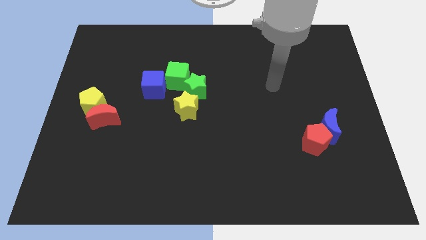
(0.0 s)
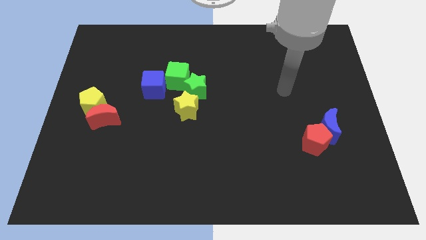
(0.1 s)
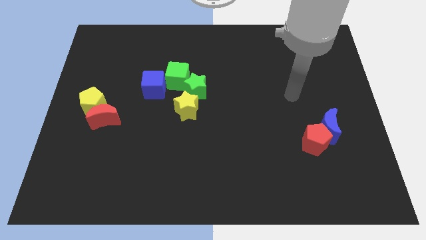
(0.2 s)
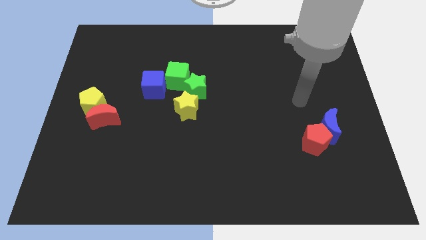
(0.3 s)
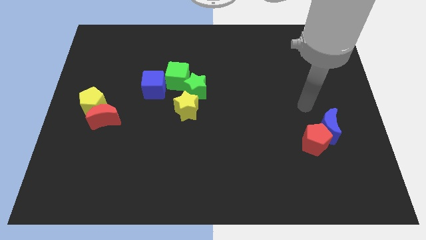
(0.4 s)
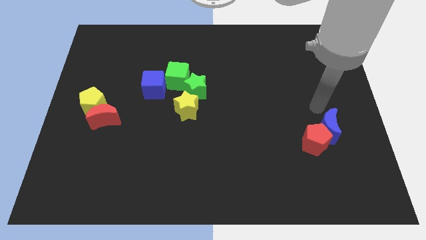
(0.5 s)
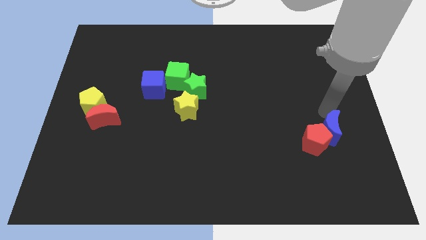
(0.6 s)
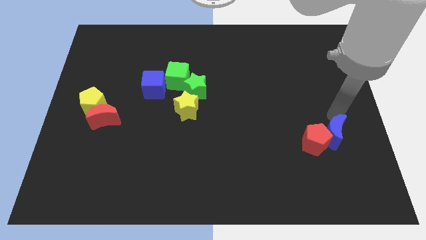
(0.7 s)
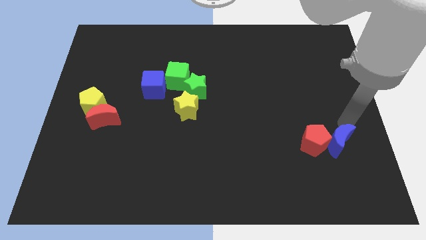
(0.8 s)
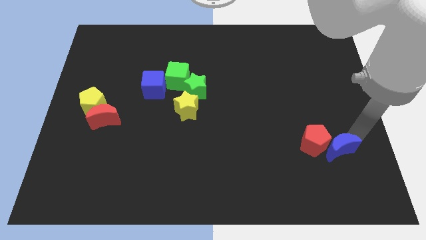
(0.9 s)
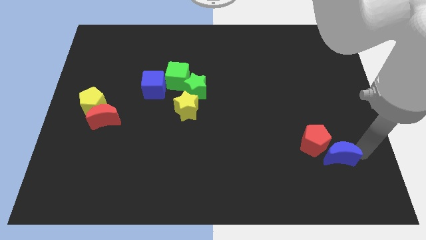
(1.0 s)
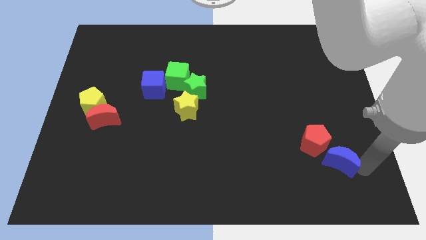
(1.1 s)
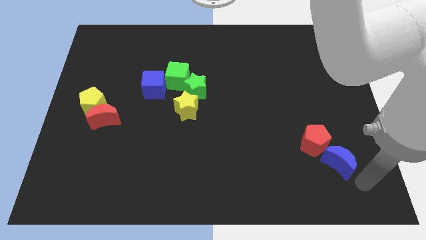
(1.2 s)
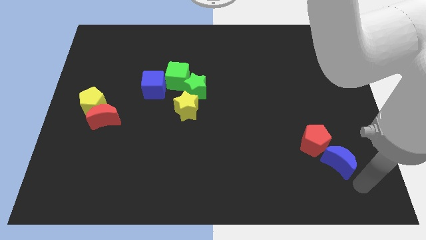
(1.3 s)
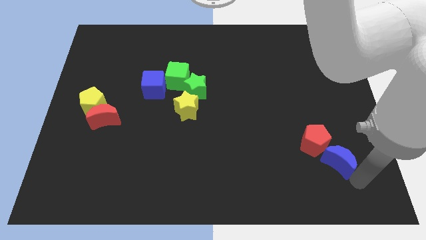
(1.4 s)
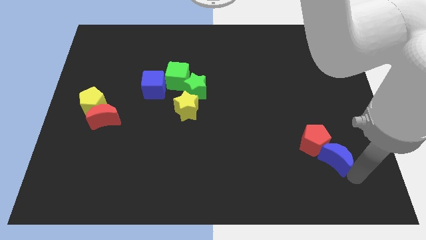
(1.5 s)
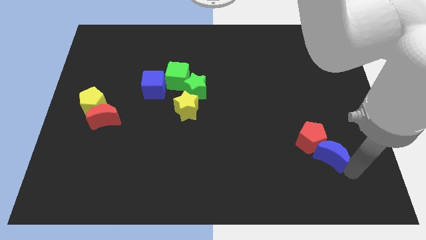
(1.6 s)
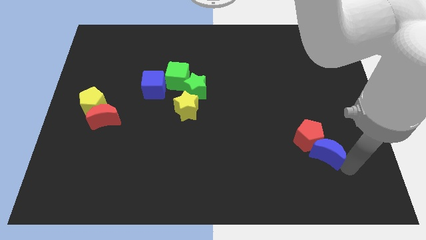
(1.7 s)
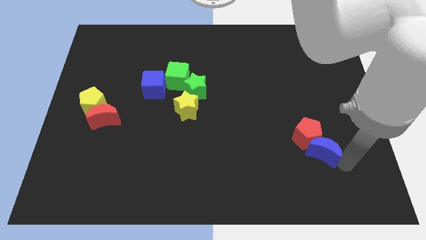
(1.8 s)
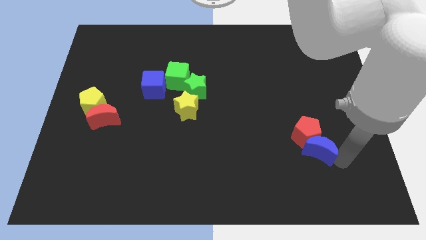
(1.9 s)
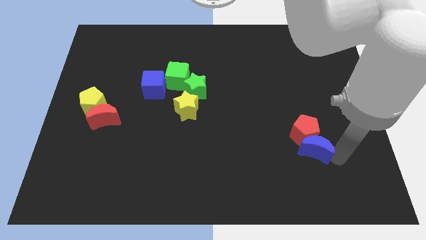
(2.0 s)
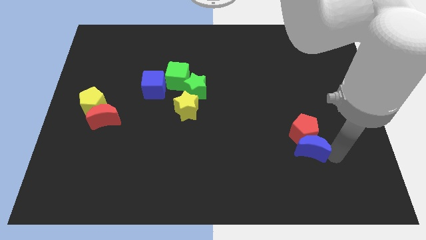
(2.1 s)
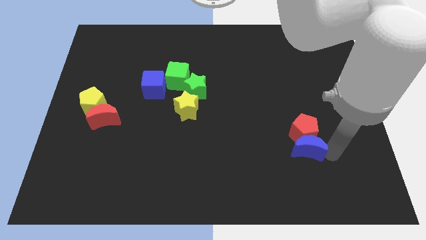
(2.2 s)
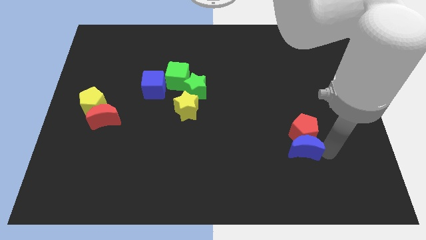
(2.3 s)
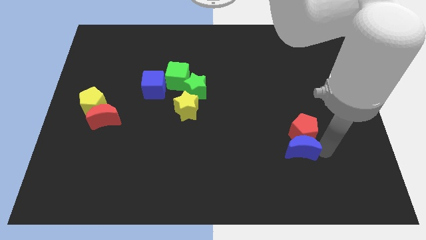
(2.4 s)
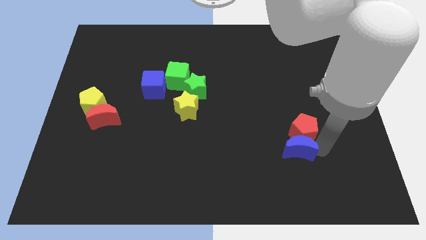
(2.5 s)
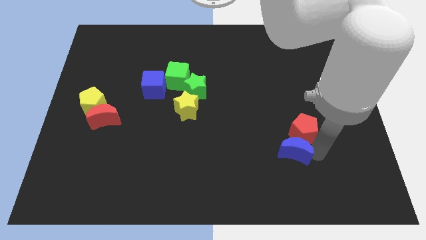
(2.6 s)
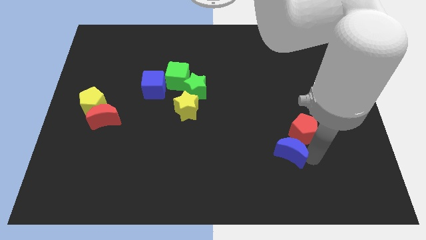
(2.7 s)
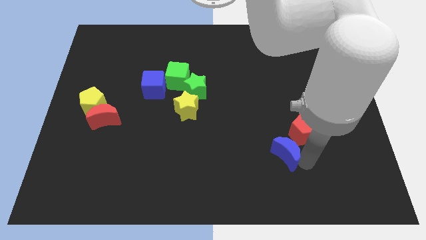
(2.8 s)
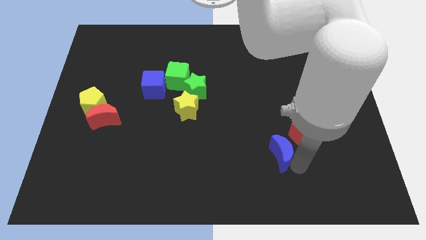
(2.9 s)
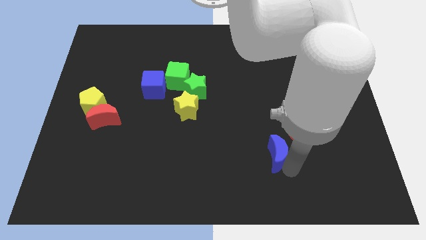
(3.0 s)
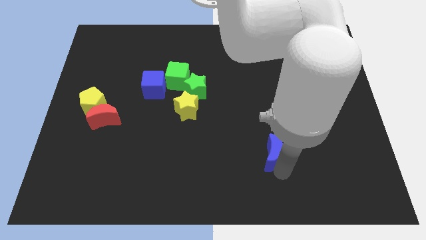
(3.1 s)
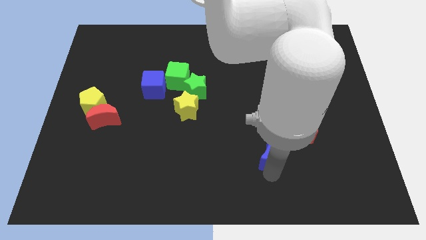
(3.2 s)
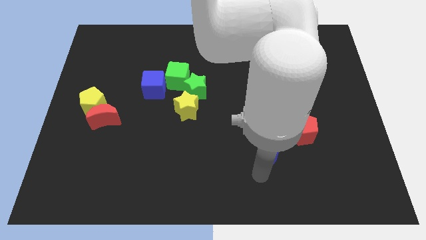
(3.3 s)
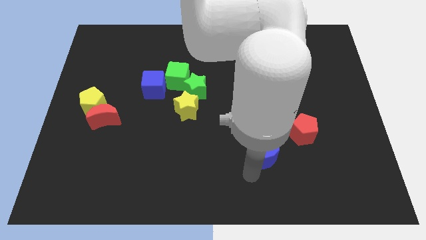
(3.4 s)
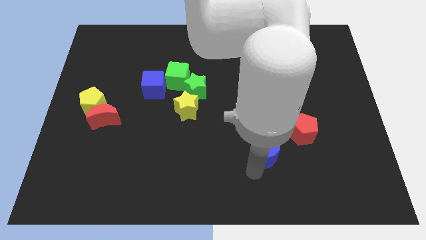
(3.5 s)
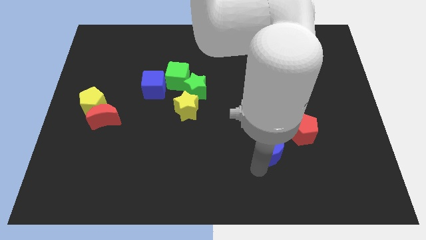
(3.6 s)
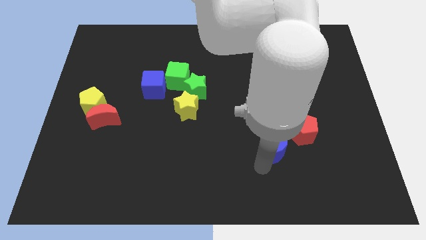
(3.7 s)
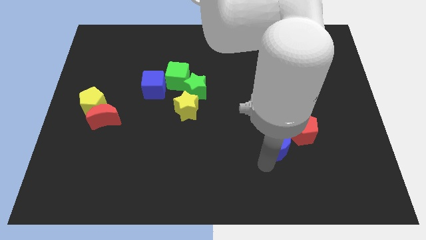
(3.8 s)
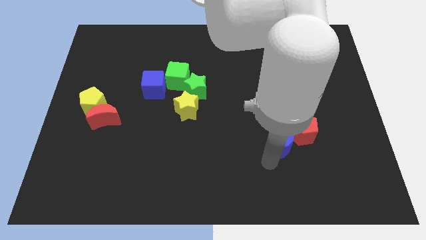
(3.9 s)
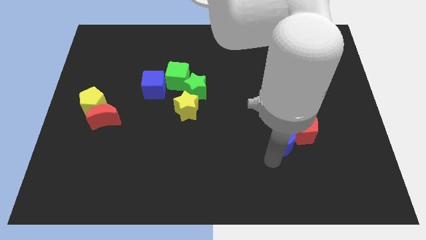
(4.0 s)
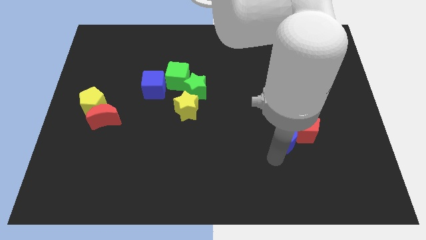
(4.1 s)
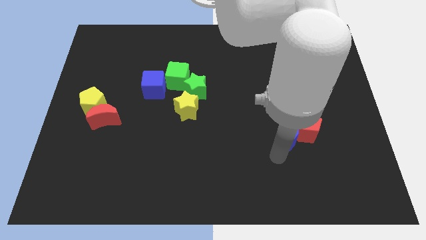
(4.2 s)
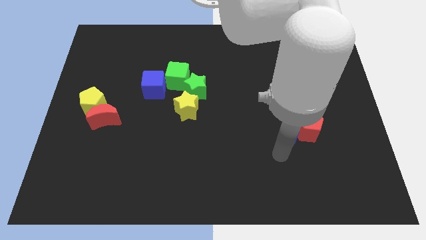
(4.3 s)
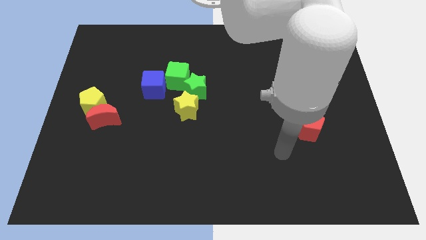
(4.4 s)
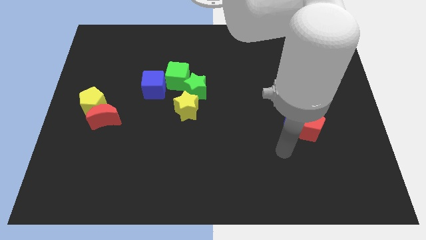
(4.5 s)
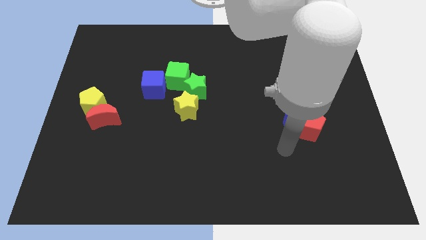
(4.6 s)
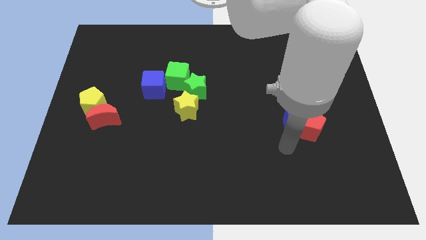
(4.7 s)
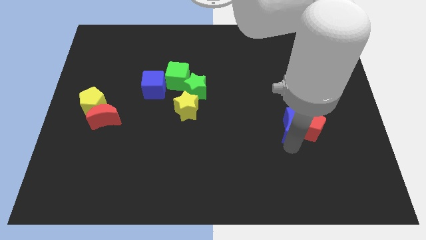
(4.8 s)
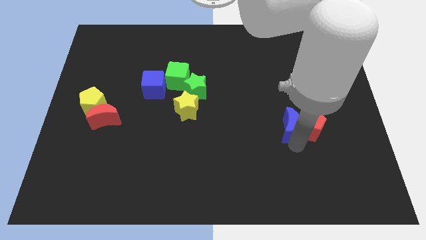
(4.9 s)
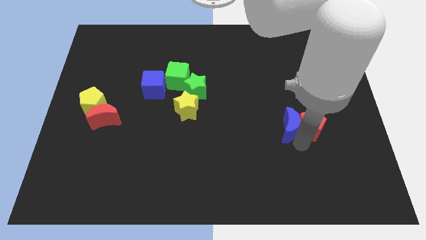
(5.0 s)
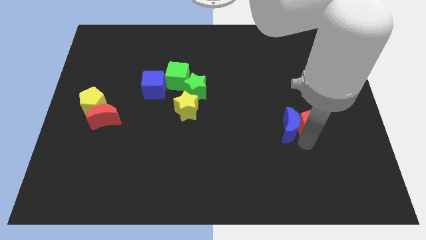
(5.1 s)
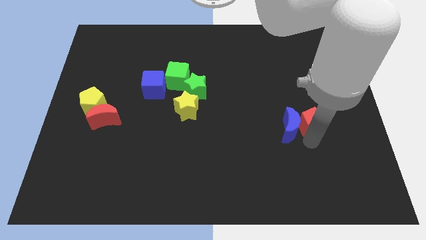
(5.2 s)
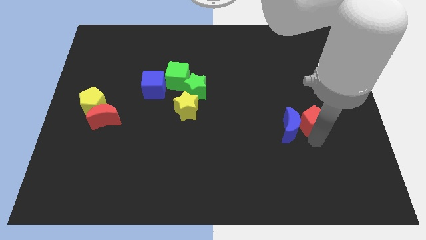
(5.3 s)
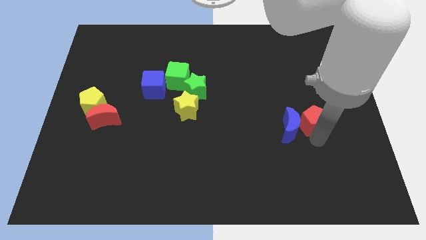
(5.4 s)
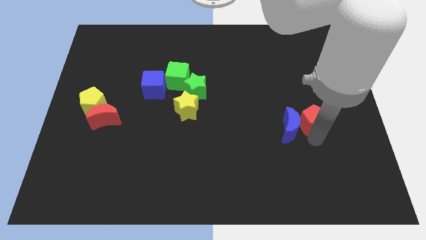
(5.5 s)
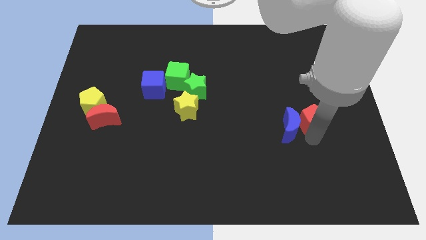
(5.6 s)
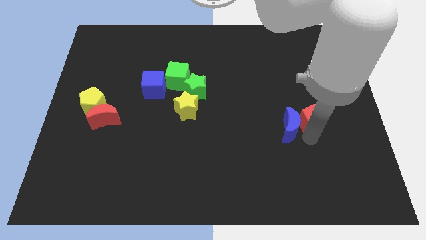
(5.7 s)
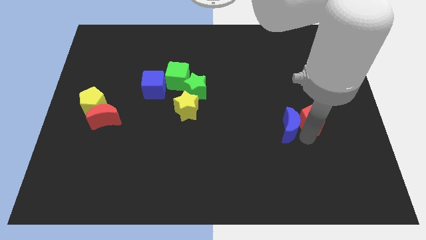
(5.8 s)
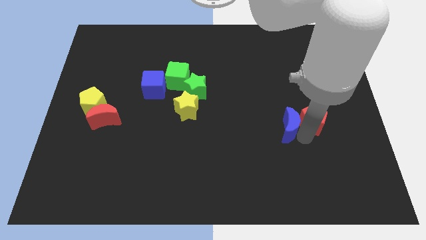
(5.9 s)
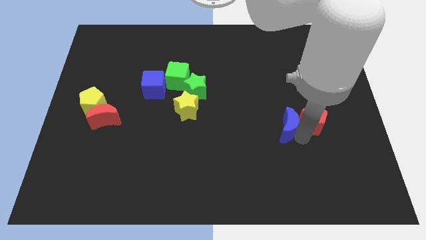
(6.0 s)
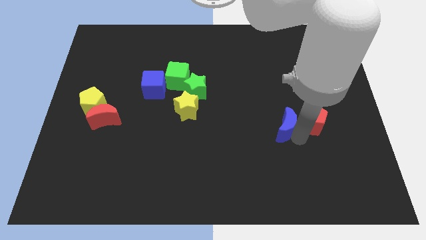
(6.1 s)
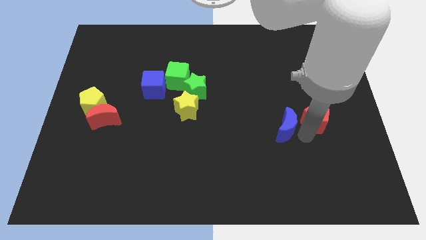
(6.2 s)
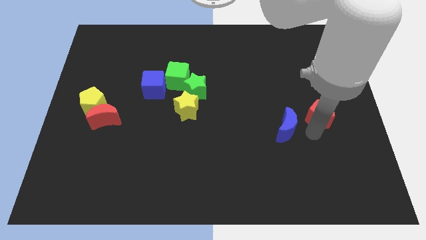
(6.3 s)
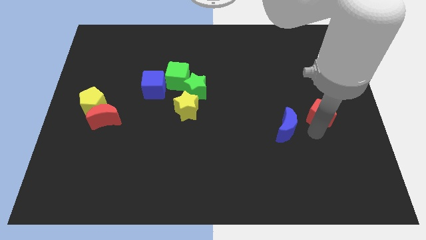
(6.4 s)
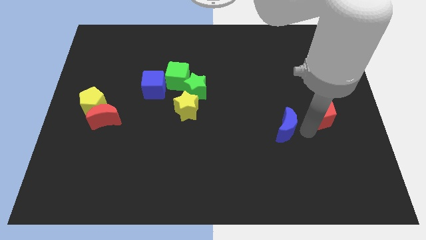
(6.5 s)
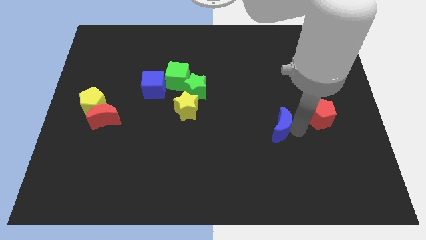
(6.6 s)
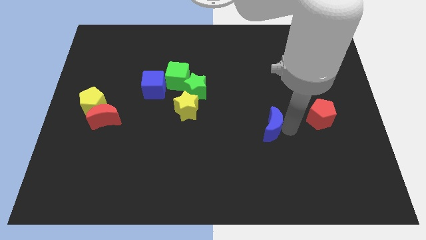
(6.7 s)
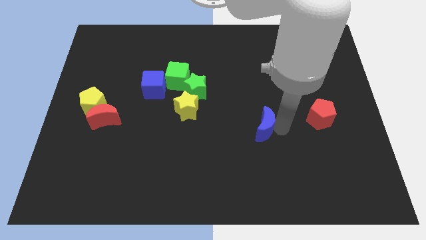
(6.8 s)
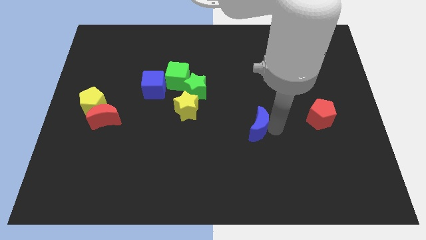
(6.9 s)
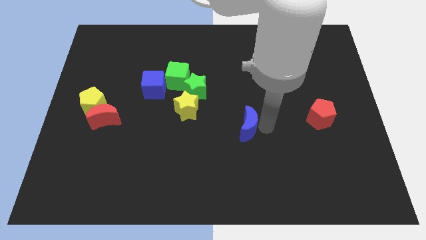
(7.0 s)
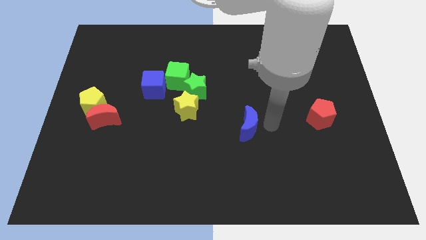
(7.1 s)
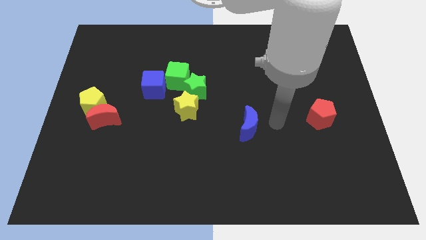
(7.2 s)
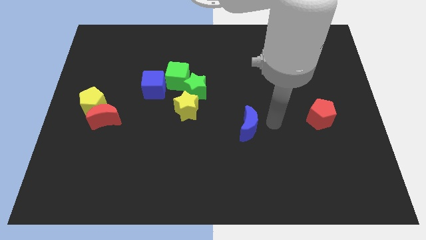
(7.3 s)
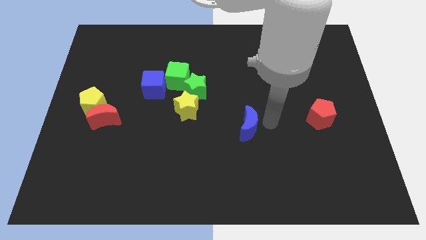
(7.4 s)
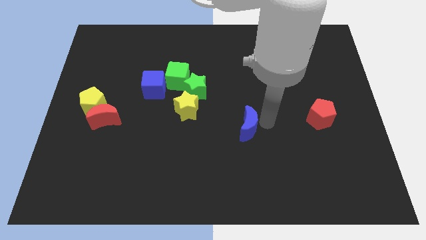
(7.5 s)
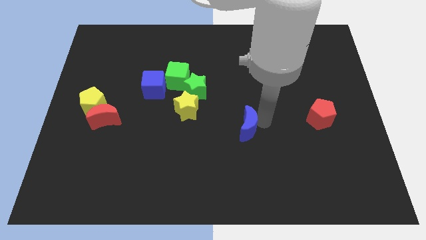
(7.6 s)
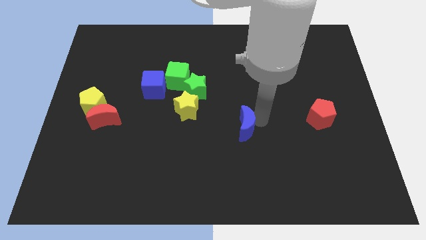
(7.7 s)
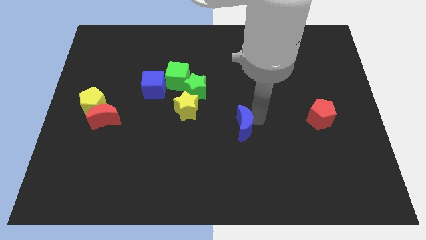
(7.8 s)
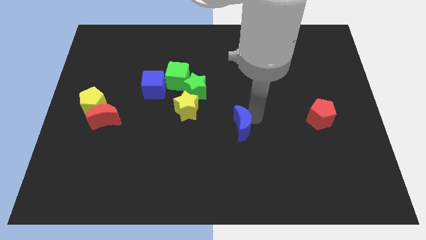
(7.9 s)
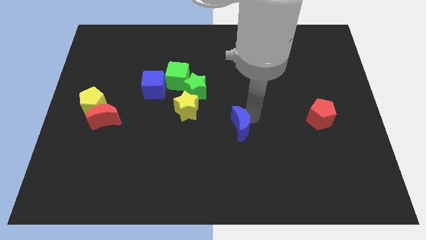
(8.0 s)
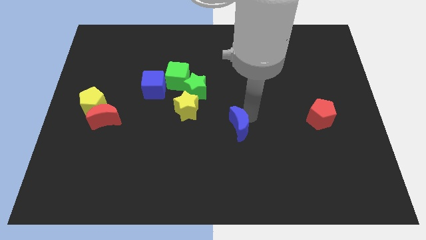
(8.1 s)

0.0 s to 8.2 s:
push the blue moon left
